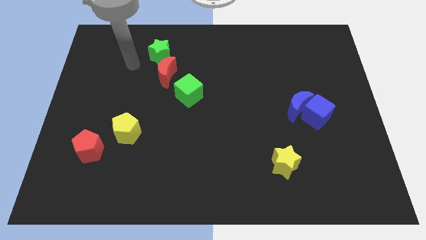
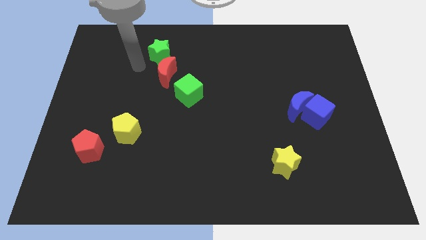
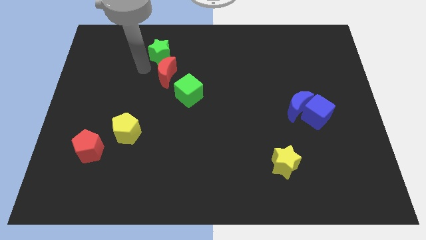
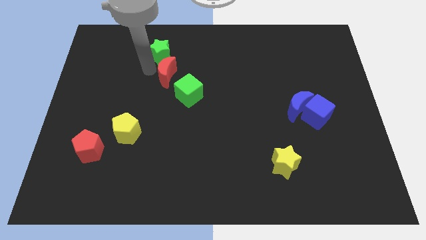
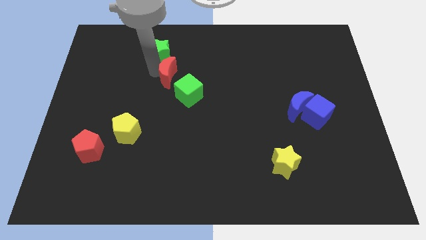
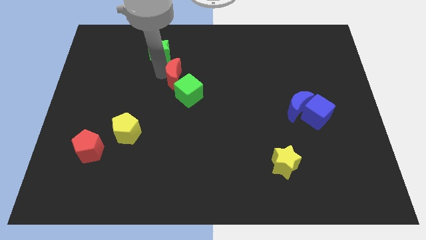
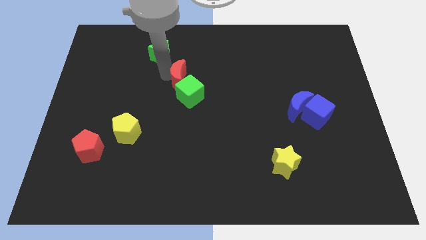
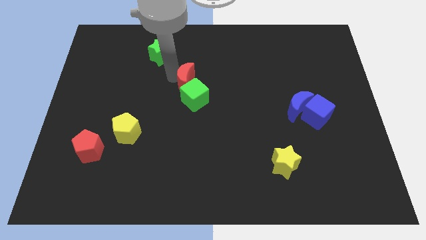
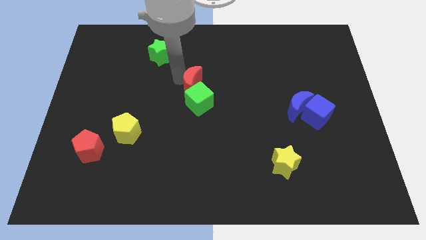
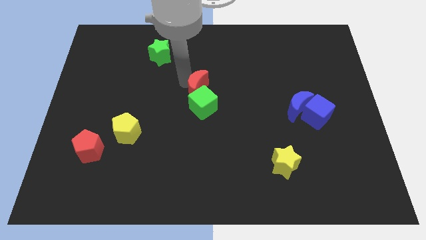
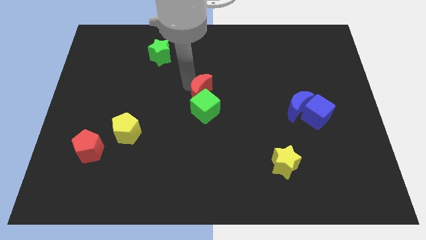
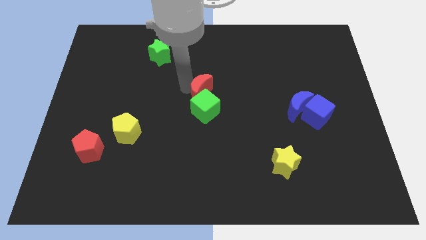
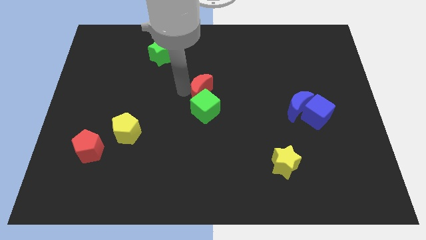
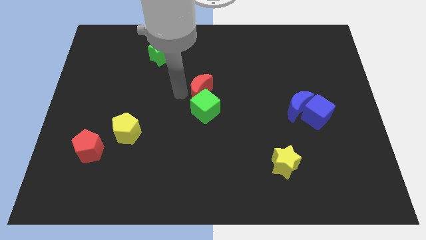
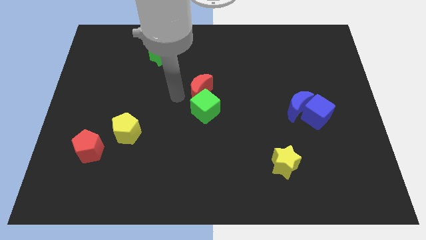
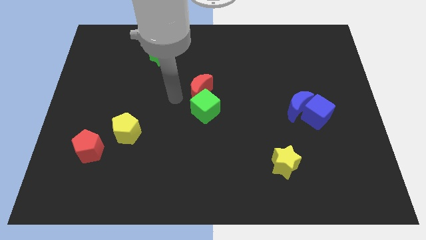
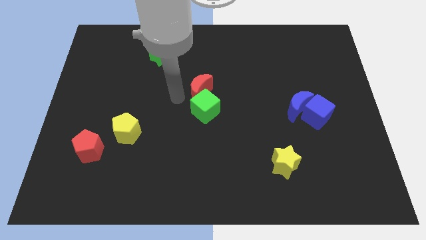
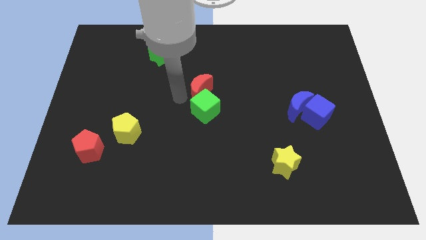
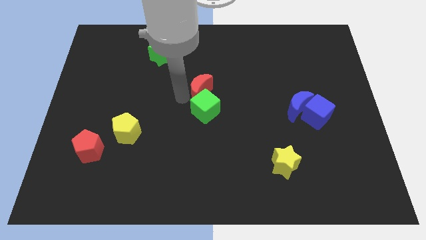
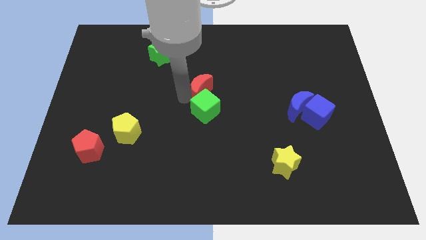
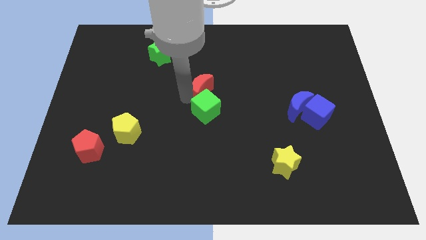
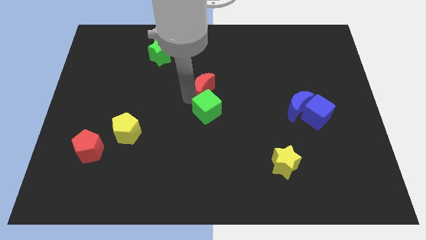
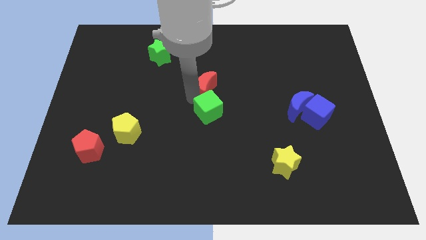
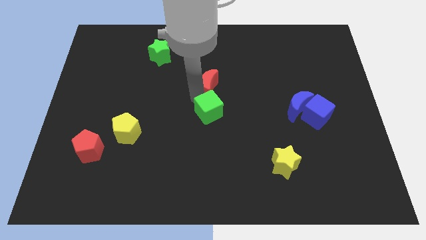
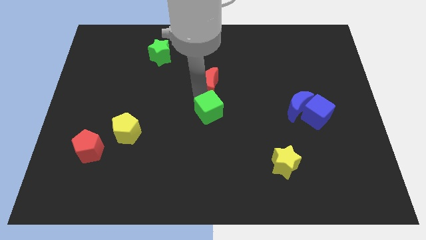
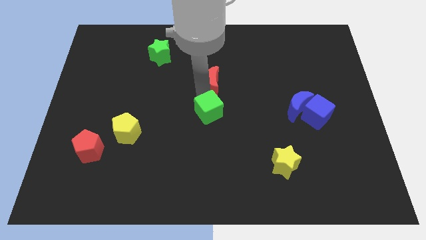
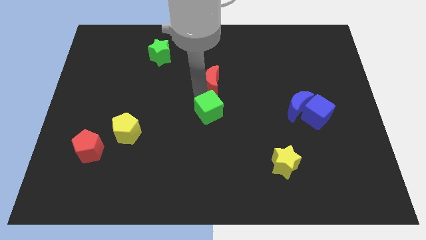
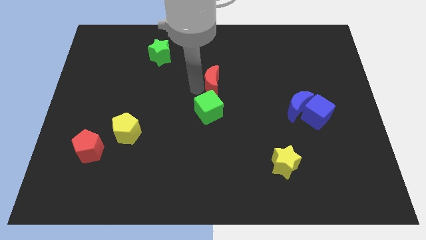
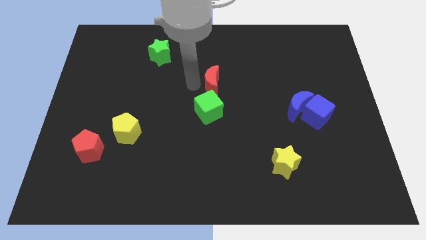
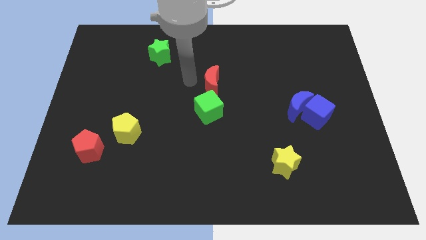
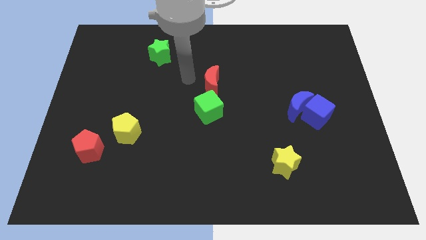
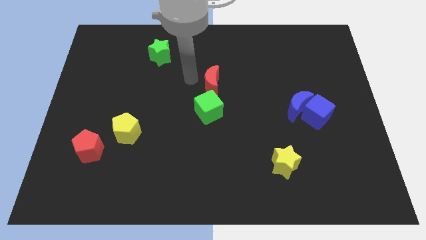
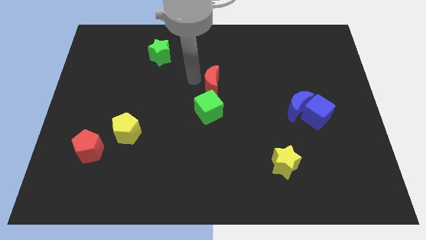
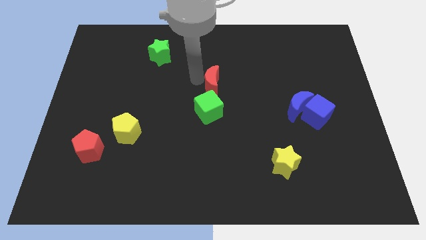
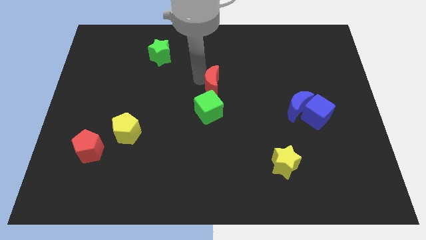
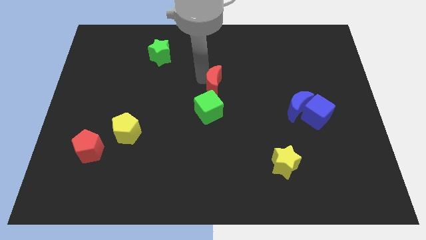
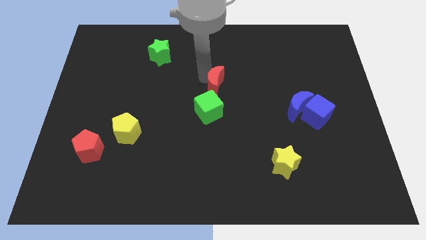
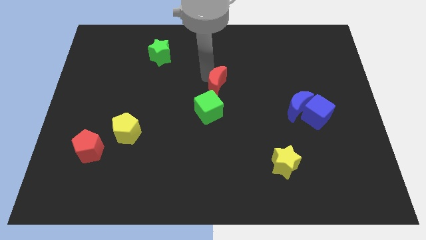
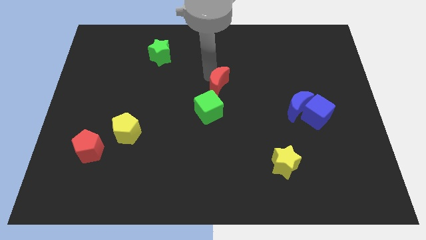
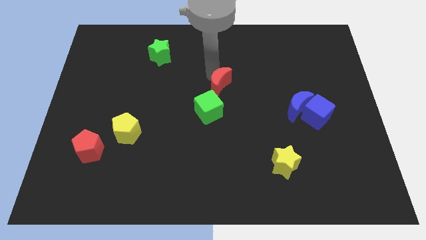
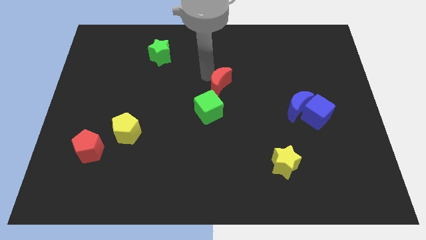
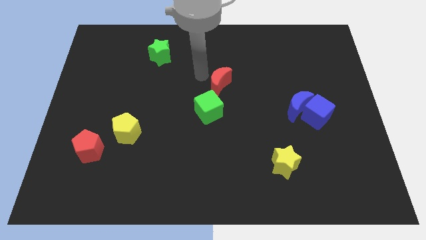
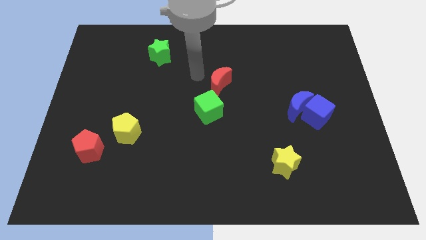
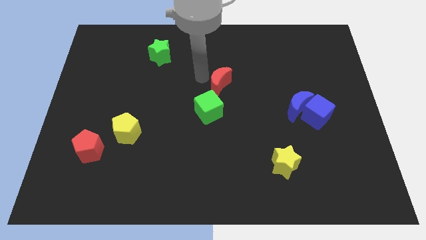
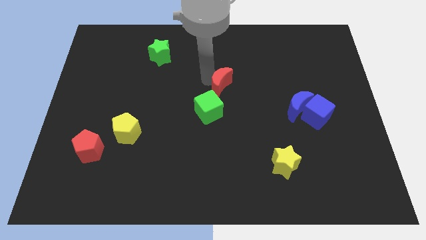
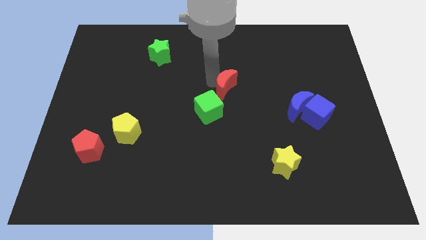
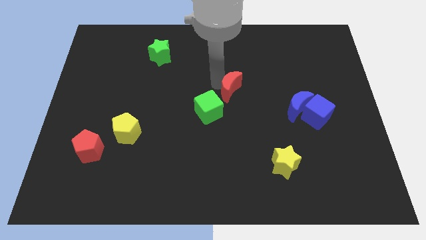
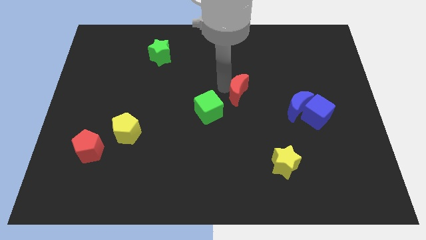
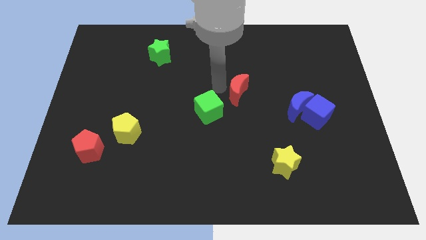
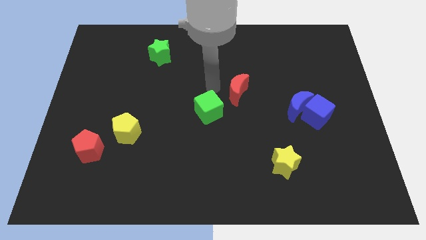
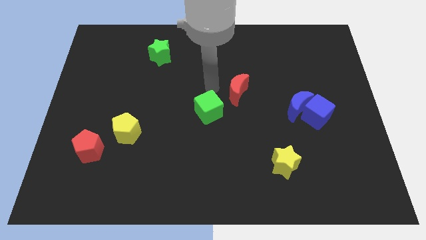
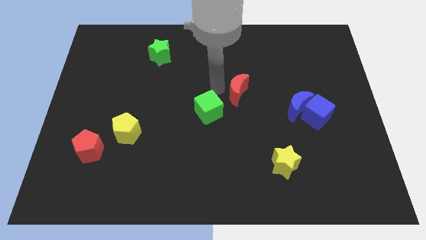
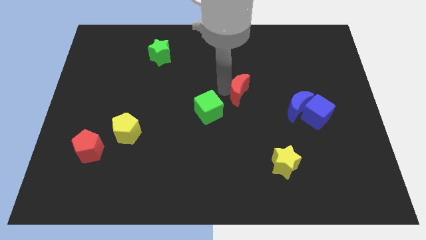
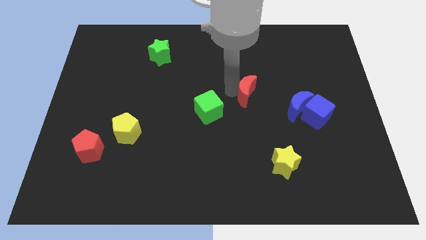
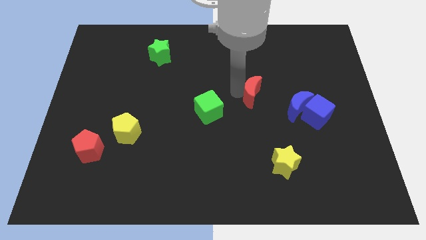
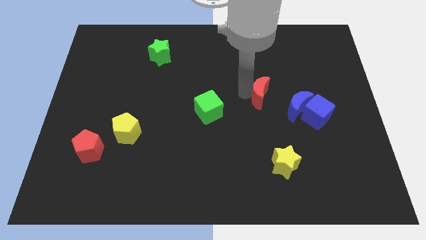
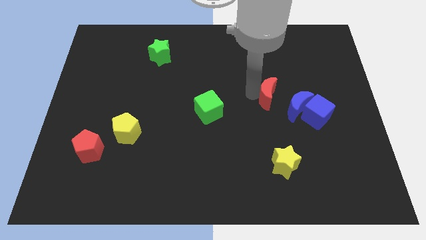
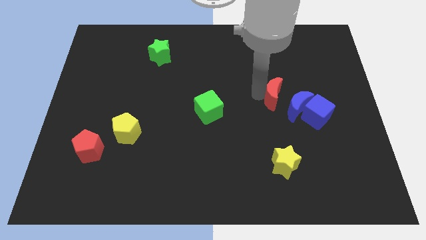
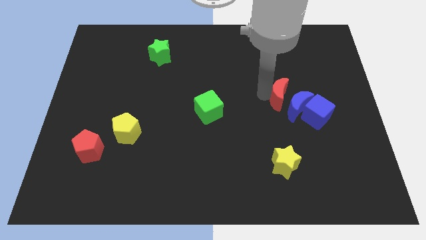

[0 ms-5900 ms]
slide the red moon next to the blue moon
